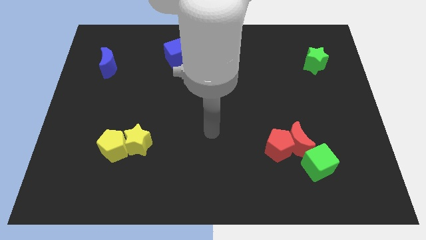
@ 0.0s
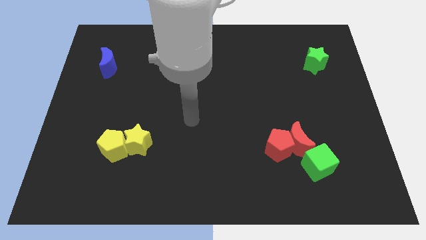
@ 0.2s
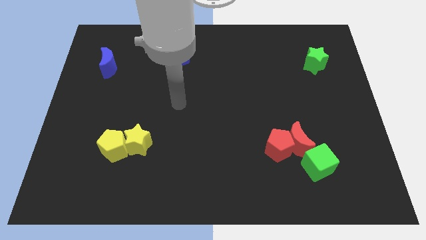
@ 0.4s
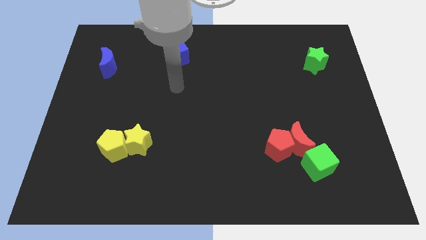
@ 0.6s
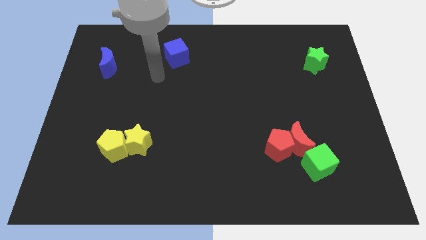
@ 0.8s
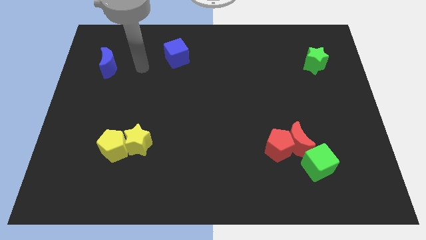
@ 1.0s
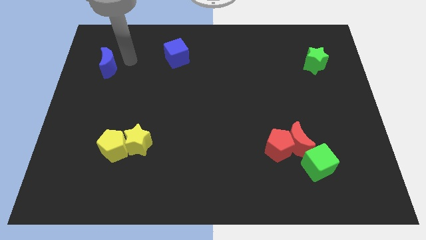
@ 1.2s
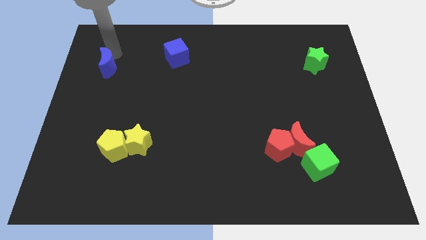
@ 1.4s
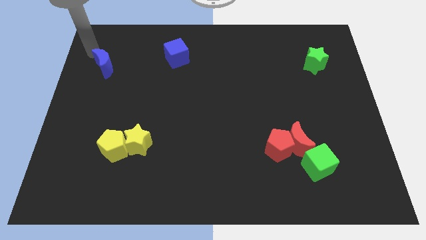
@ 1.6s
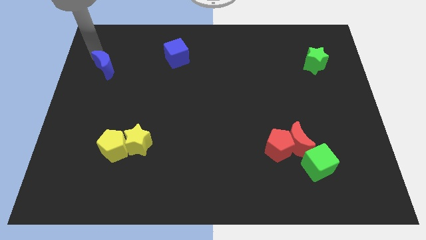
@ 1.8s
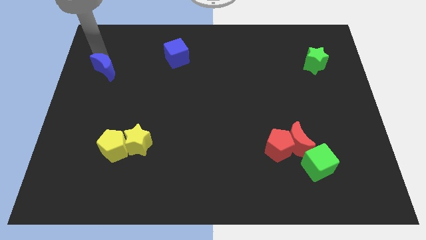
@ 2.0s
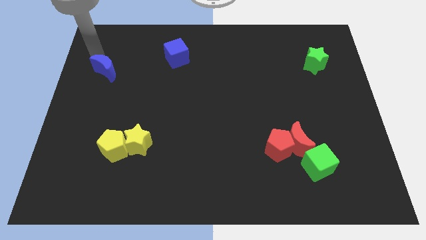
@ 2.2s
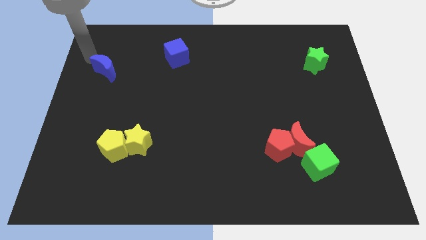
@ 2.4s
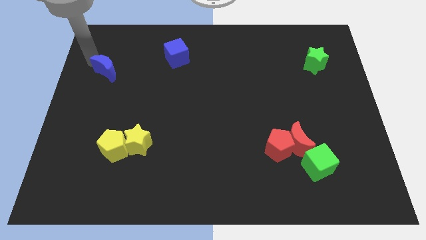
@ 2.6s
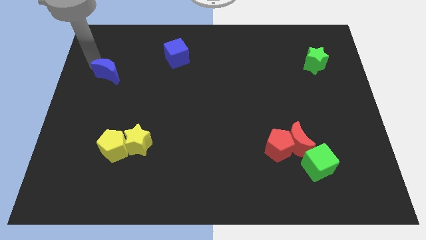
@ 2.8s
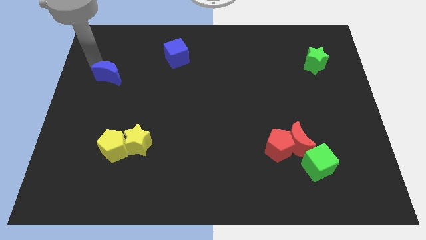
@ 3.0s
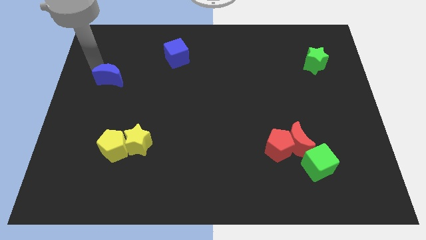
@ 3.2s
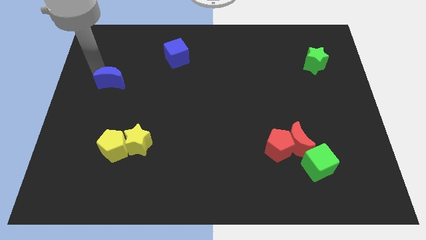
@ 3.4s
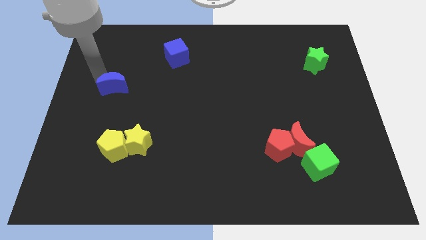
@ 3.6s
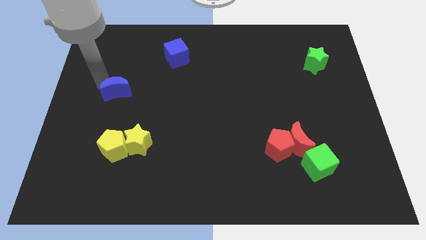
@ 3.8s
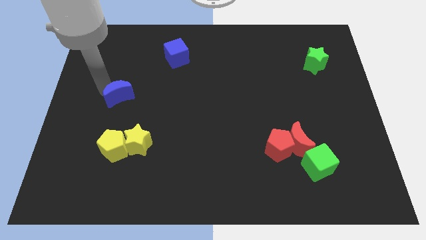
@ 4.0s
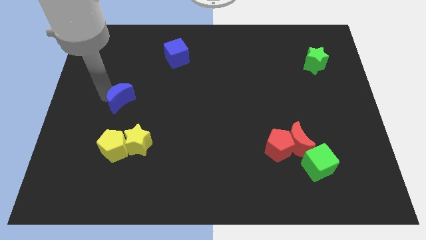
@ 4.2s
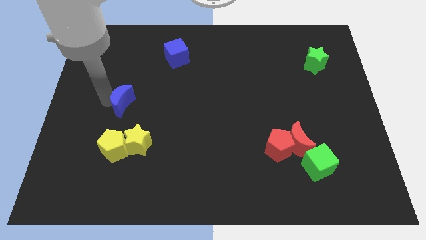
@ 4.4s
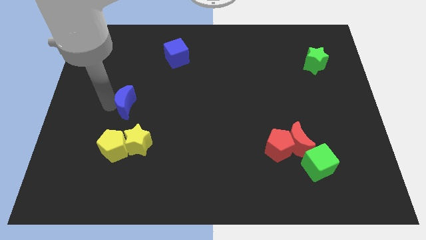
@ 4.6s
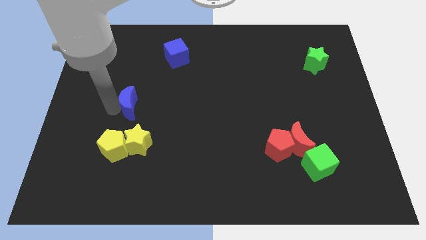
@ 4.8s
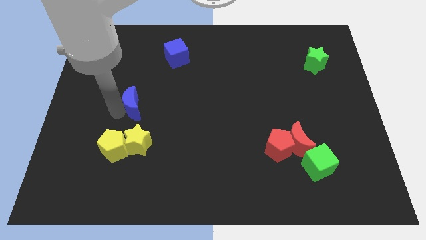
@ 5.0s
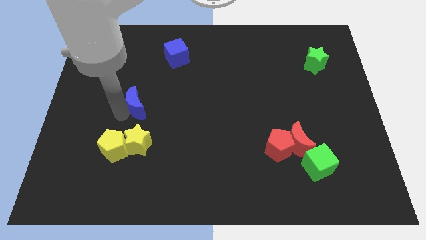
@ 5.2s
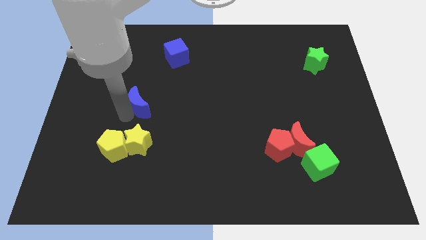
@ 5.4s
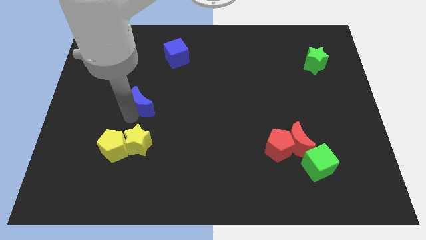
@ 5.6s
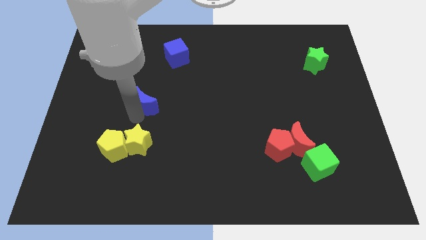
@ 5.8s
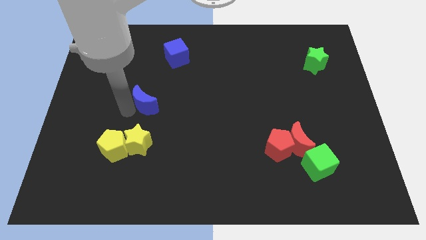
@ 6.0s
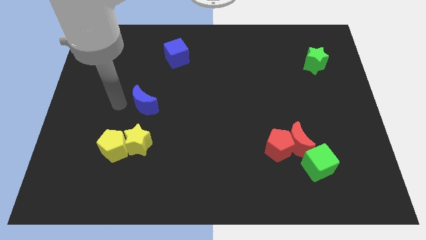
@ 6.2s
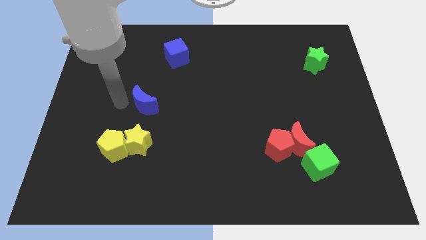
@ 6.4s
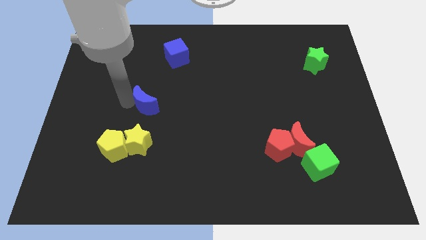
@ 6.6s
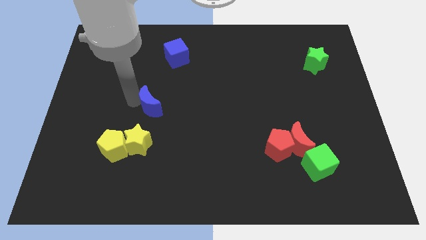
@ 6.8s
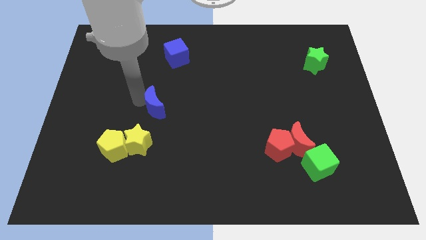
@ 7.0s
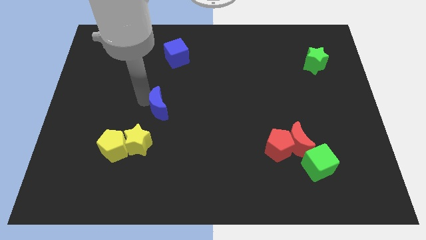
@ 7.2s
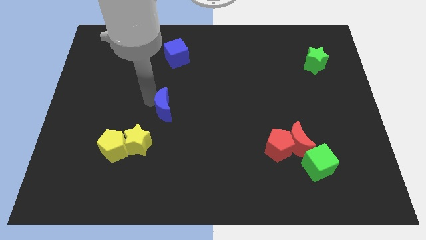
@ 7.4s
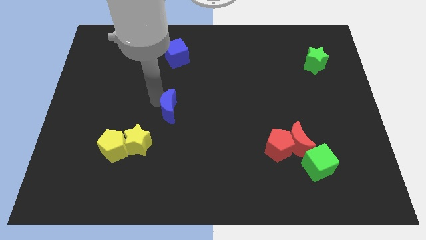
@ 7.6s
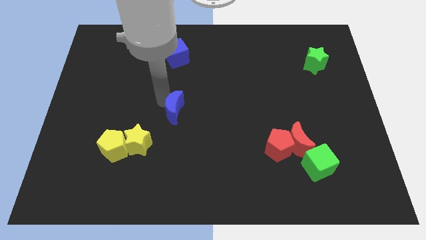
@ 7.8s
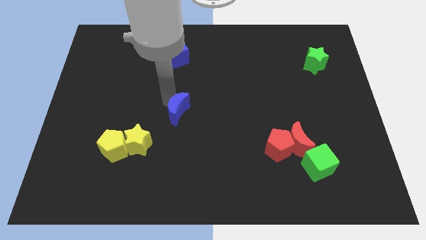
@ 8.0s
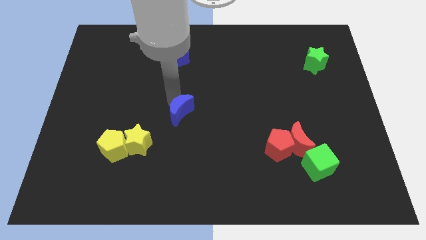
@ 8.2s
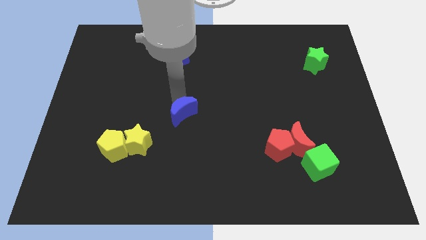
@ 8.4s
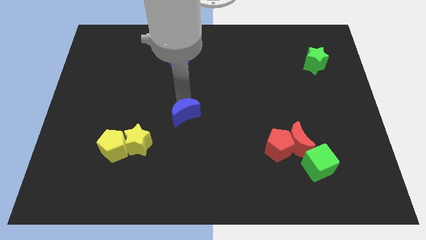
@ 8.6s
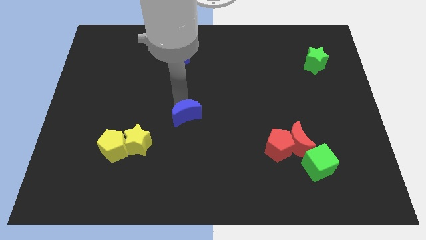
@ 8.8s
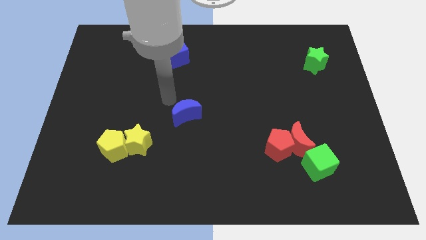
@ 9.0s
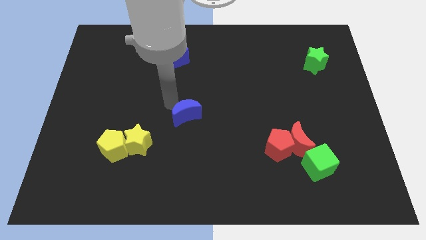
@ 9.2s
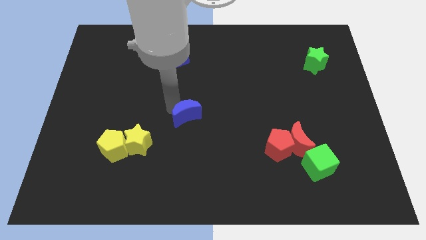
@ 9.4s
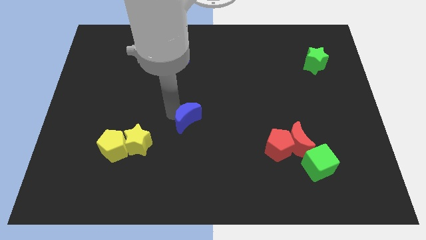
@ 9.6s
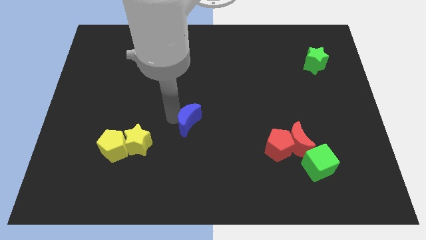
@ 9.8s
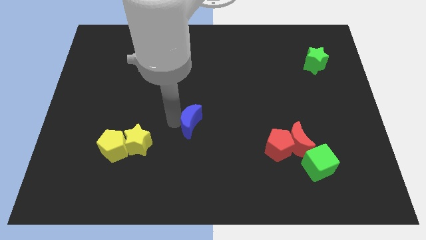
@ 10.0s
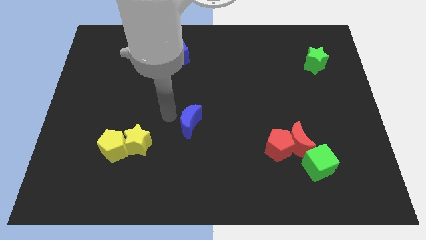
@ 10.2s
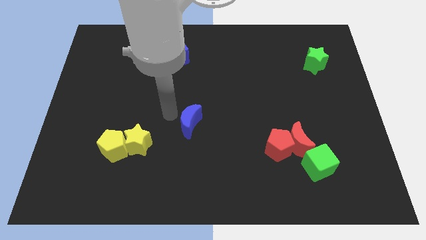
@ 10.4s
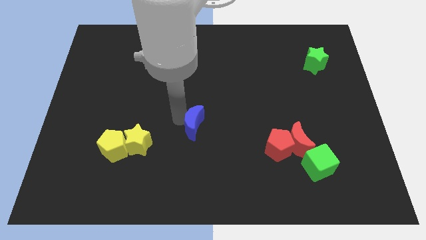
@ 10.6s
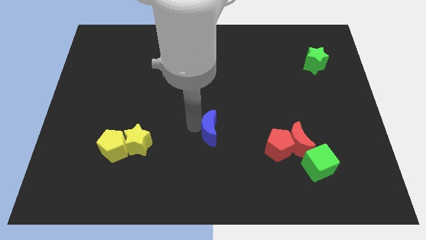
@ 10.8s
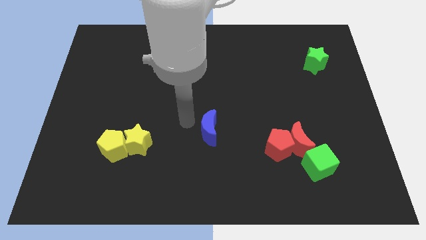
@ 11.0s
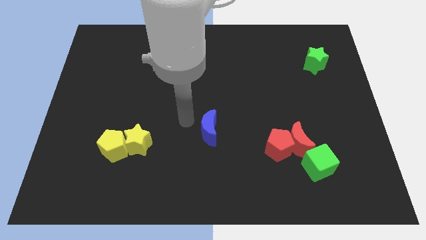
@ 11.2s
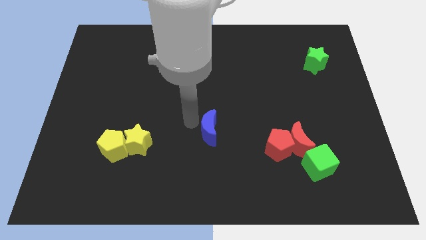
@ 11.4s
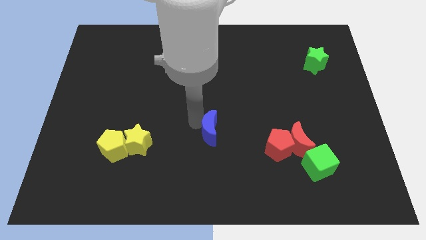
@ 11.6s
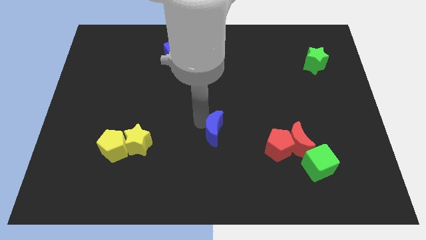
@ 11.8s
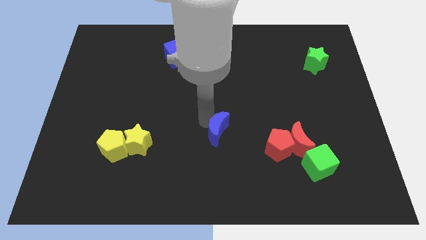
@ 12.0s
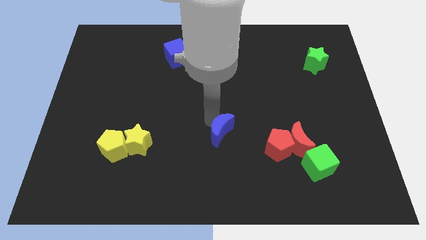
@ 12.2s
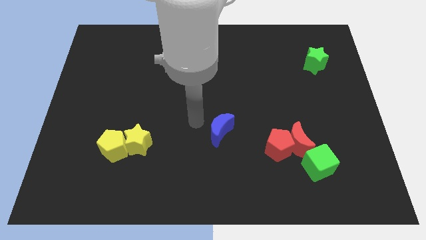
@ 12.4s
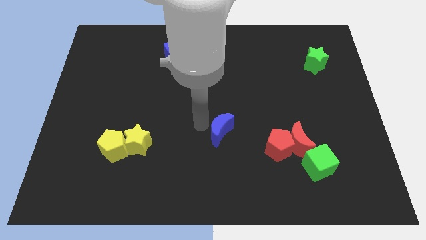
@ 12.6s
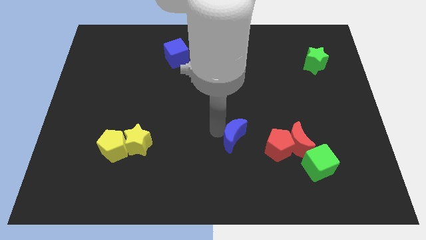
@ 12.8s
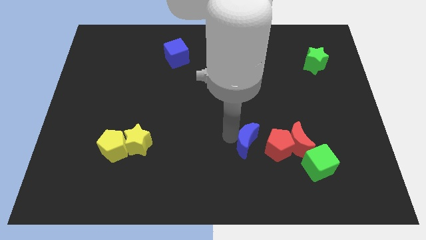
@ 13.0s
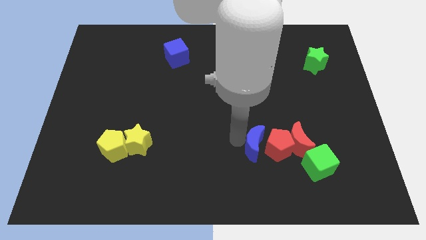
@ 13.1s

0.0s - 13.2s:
move the blue moon to the red pentagon

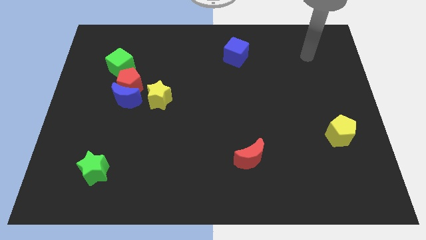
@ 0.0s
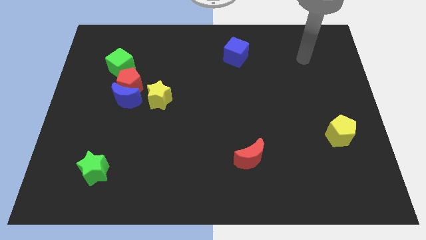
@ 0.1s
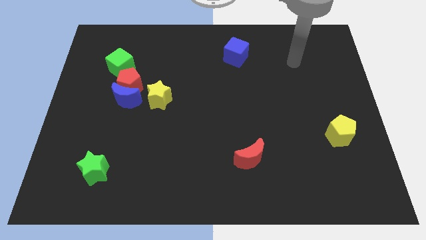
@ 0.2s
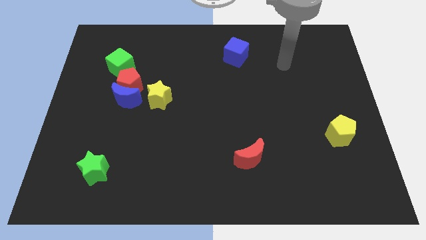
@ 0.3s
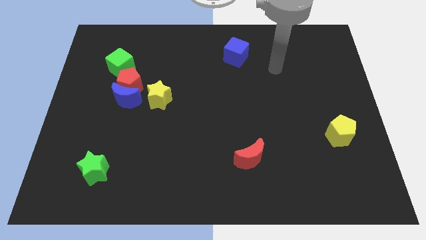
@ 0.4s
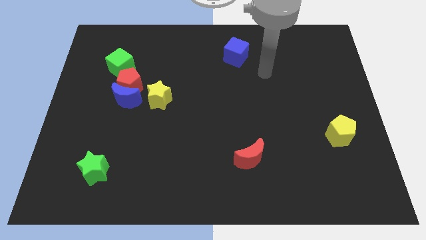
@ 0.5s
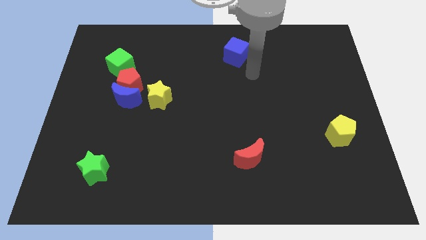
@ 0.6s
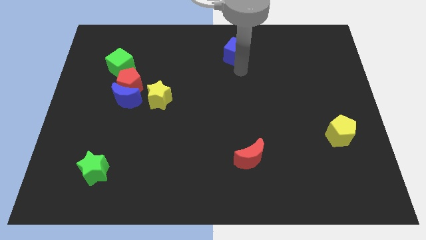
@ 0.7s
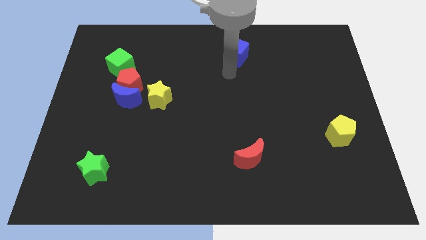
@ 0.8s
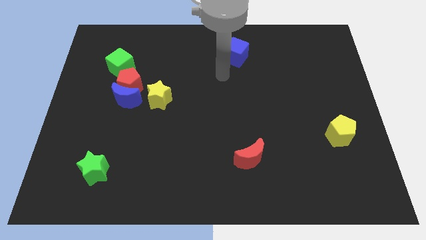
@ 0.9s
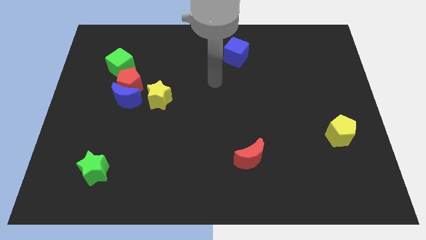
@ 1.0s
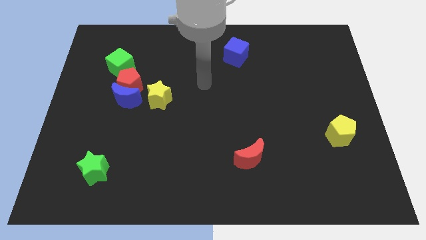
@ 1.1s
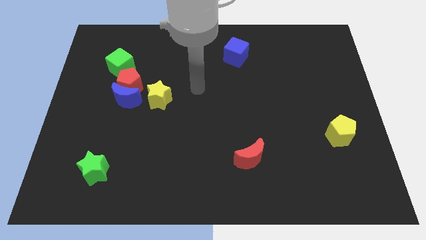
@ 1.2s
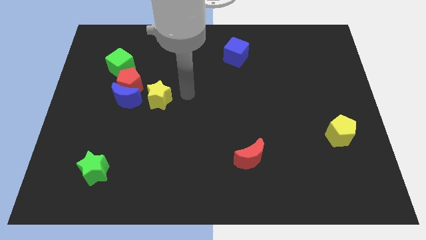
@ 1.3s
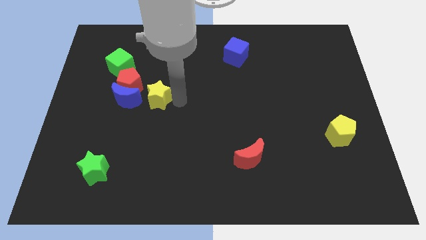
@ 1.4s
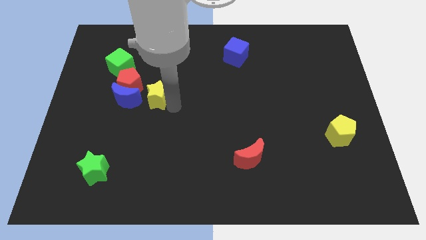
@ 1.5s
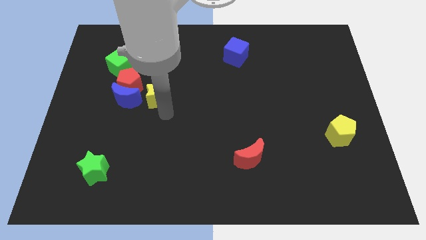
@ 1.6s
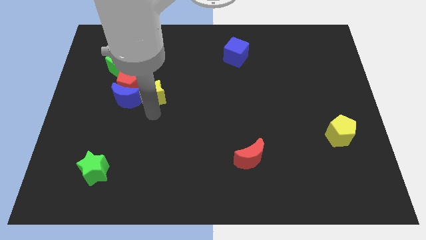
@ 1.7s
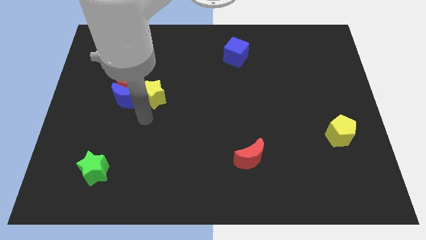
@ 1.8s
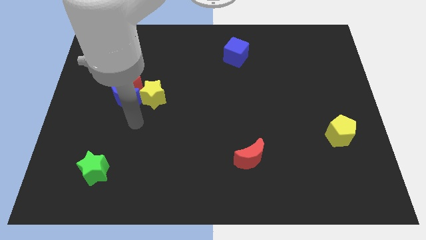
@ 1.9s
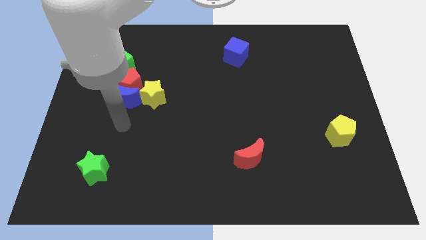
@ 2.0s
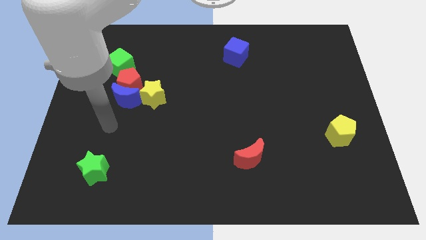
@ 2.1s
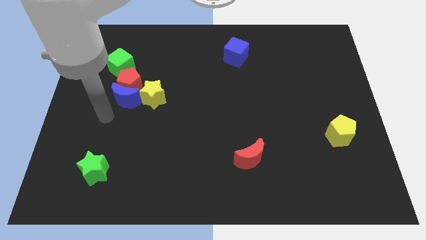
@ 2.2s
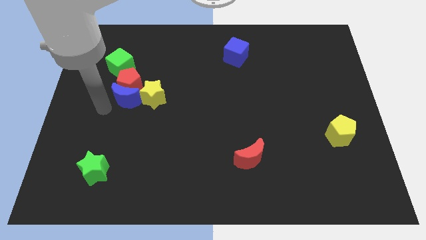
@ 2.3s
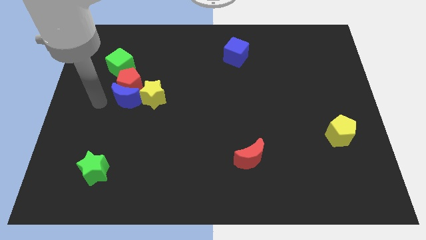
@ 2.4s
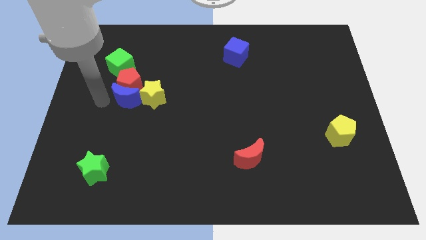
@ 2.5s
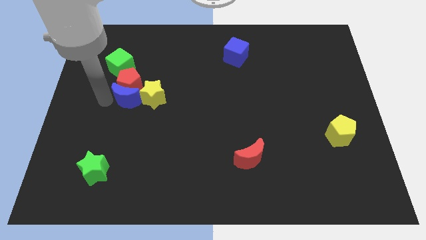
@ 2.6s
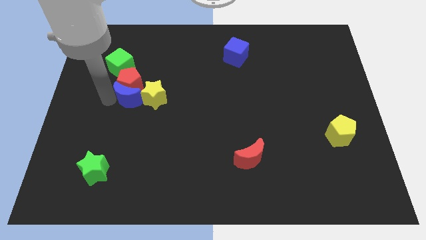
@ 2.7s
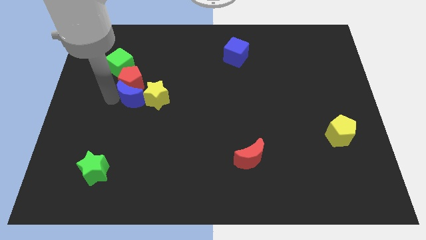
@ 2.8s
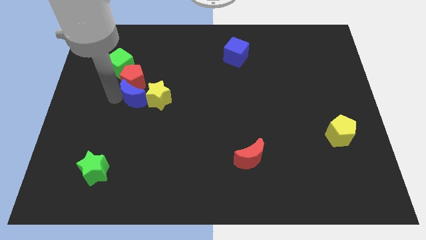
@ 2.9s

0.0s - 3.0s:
slide the blue moon to the yellow star
